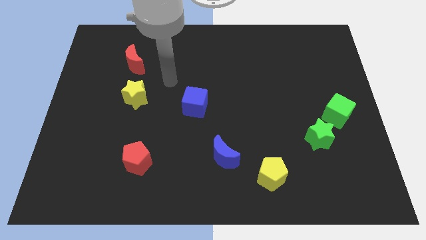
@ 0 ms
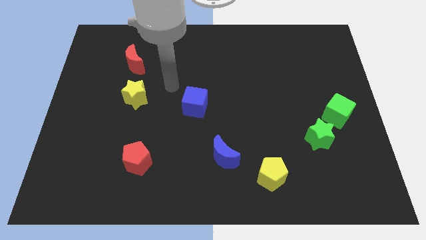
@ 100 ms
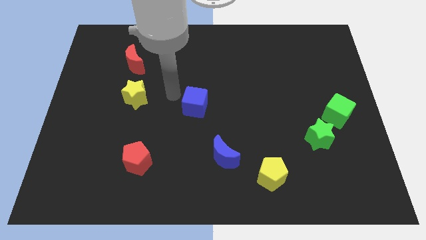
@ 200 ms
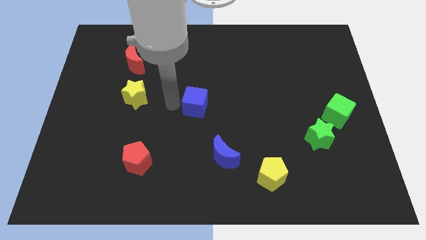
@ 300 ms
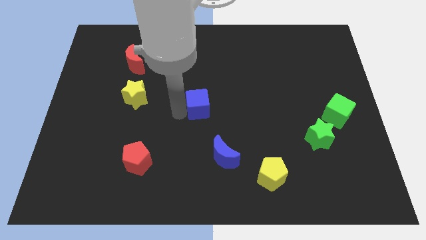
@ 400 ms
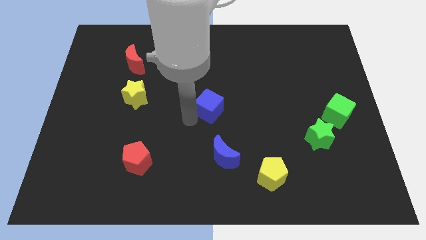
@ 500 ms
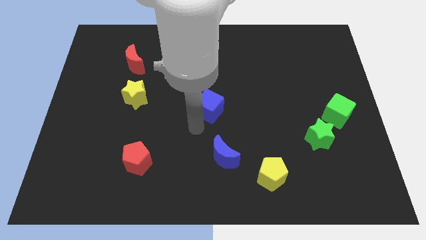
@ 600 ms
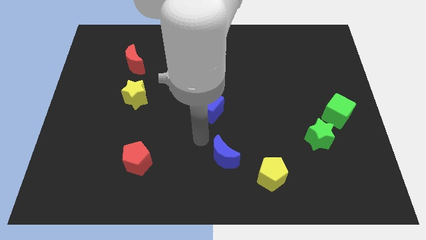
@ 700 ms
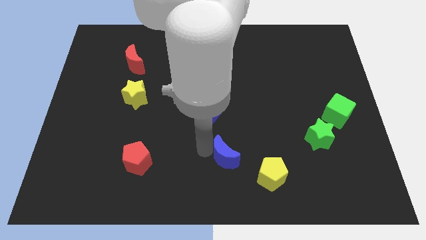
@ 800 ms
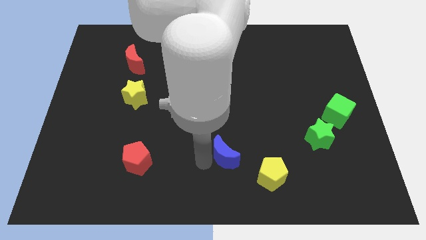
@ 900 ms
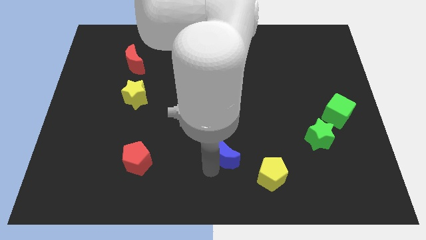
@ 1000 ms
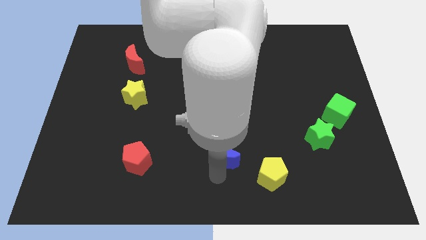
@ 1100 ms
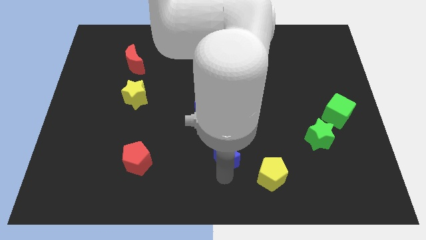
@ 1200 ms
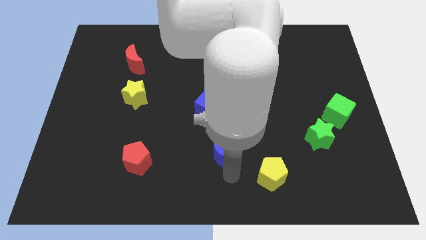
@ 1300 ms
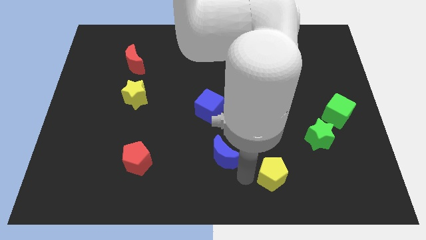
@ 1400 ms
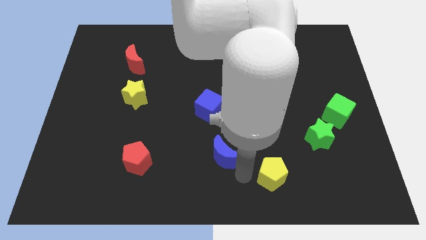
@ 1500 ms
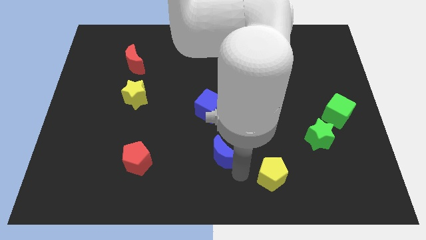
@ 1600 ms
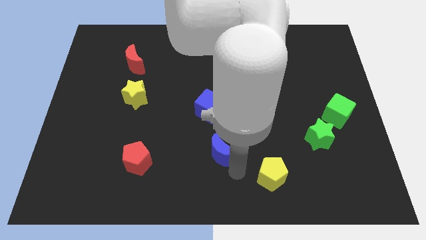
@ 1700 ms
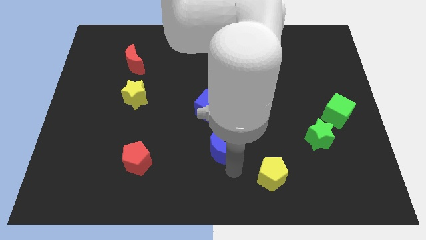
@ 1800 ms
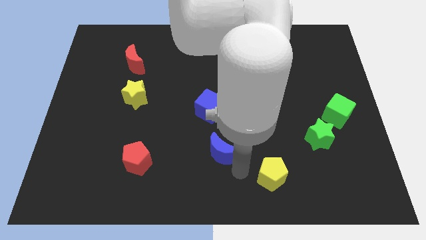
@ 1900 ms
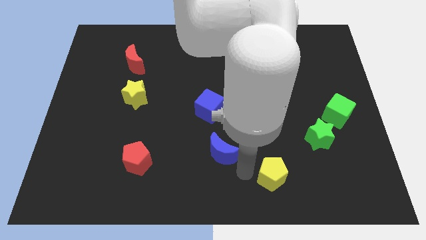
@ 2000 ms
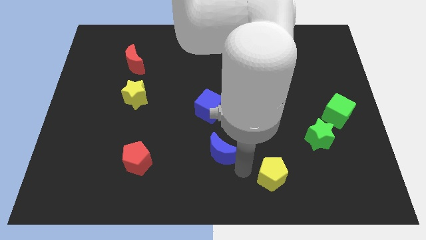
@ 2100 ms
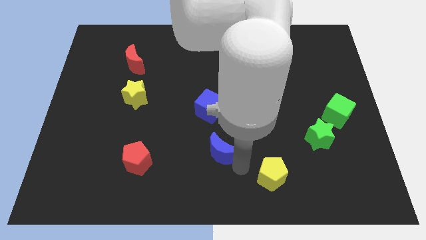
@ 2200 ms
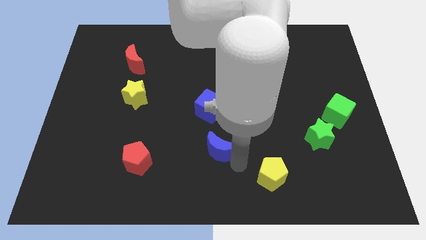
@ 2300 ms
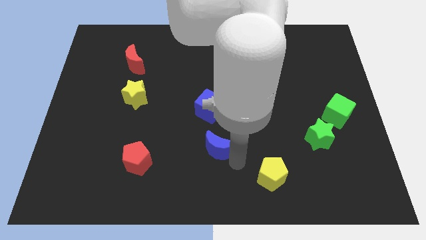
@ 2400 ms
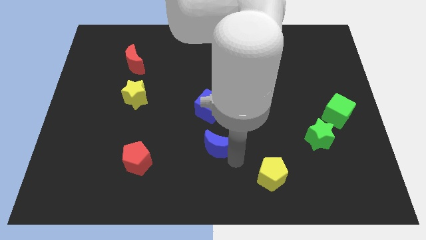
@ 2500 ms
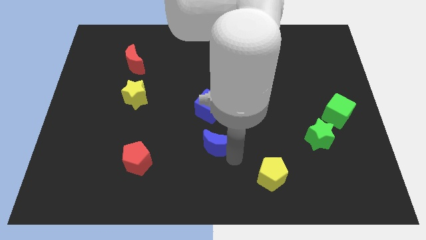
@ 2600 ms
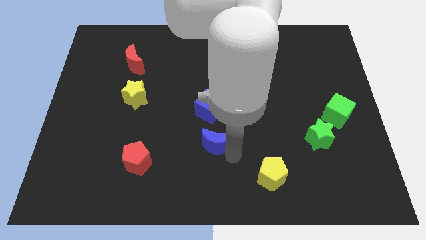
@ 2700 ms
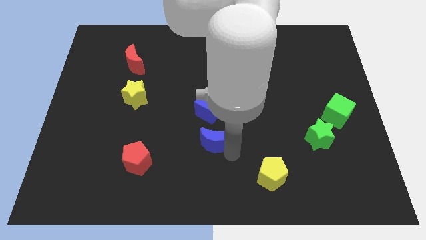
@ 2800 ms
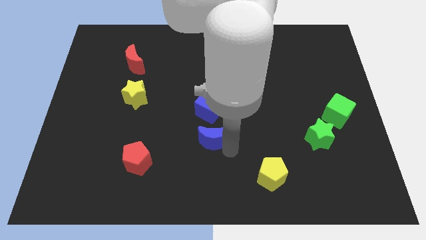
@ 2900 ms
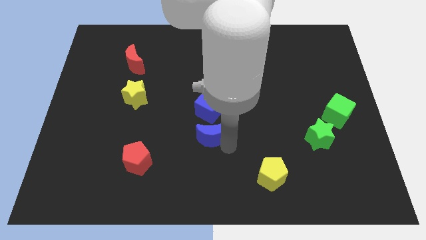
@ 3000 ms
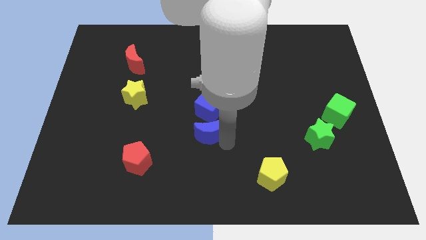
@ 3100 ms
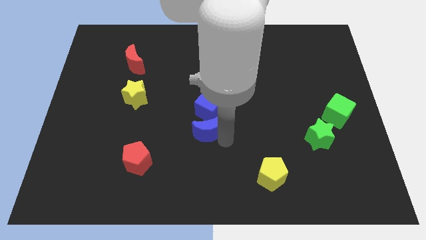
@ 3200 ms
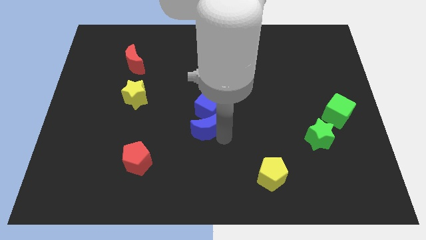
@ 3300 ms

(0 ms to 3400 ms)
slide the blue moon up and left a little bit

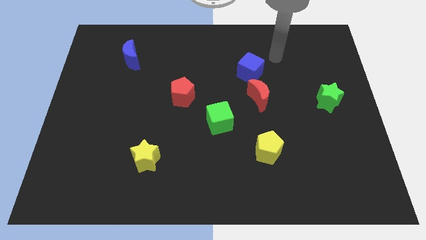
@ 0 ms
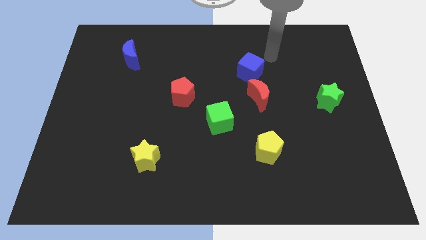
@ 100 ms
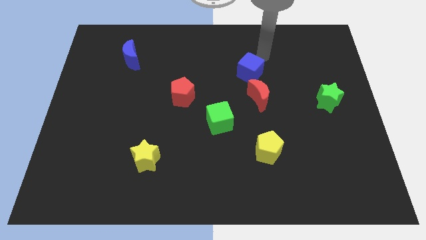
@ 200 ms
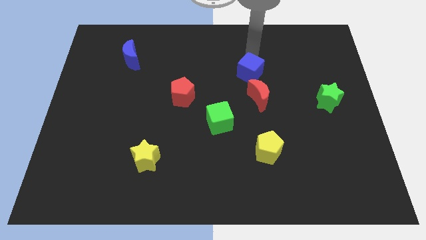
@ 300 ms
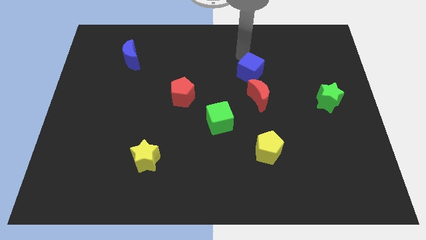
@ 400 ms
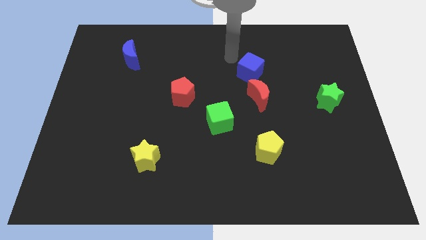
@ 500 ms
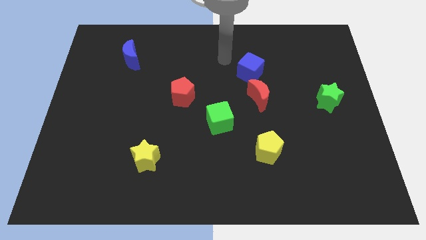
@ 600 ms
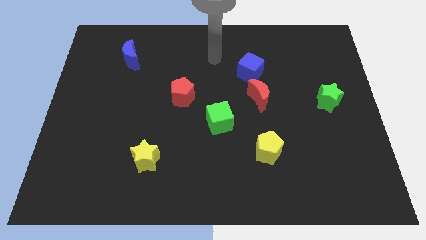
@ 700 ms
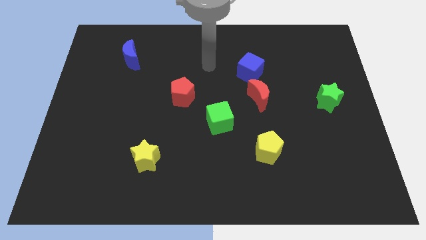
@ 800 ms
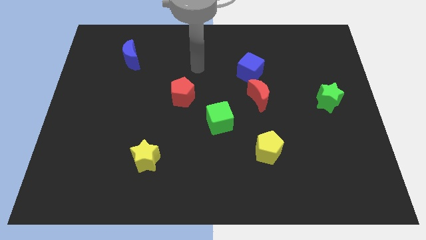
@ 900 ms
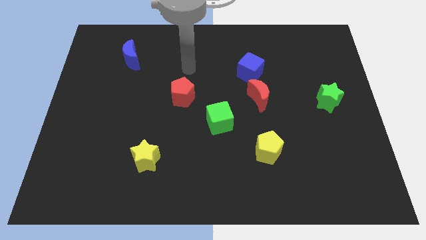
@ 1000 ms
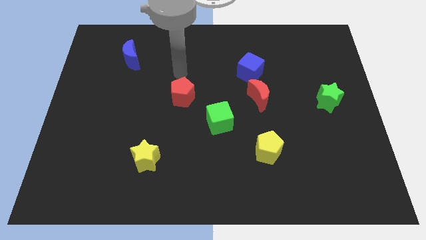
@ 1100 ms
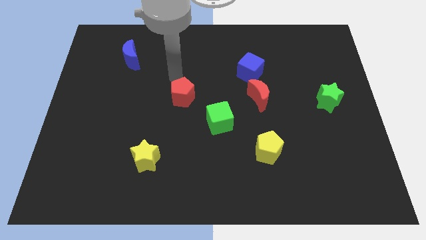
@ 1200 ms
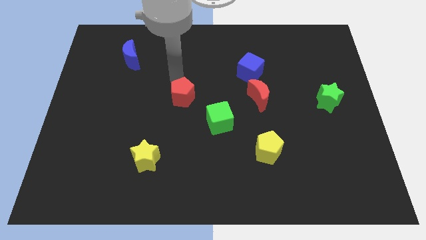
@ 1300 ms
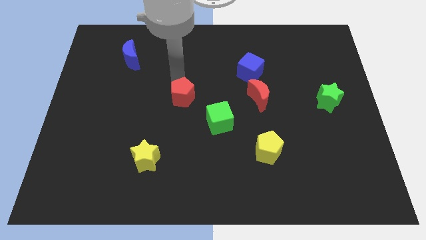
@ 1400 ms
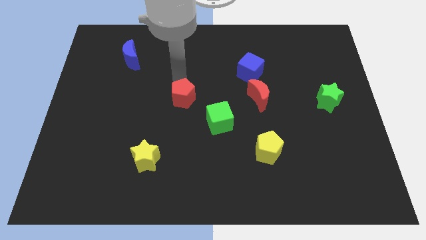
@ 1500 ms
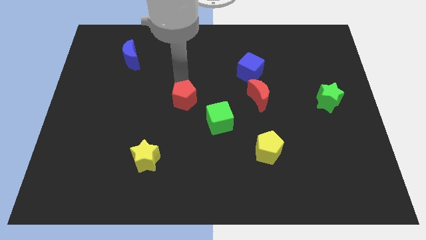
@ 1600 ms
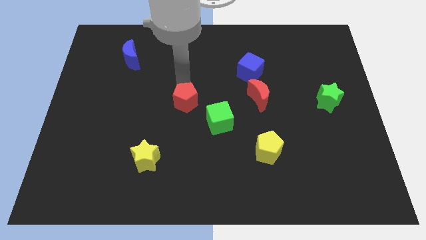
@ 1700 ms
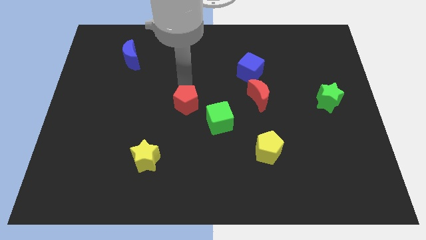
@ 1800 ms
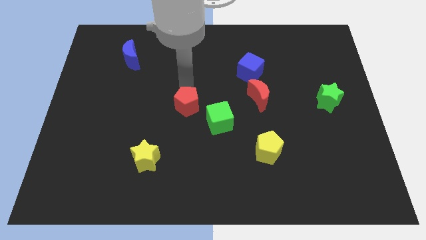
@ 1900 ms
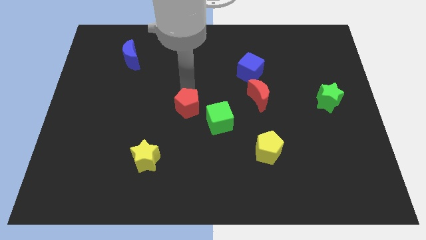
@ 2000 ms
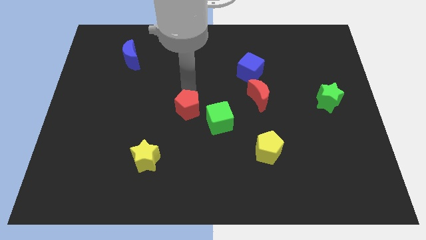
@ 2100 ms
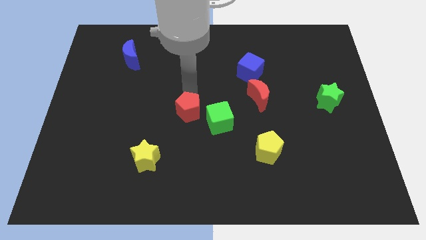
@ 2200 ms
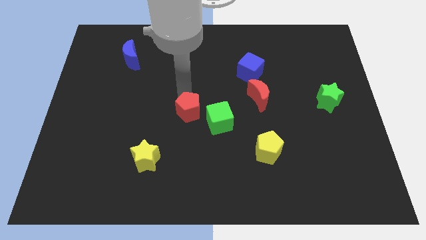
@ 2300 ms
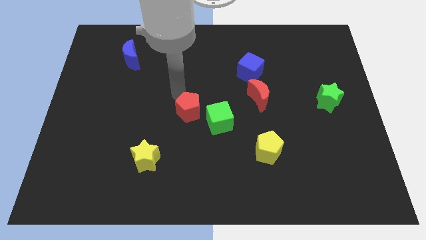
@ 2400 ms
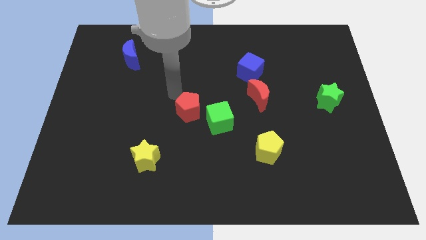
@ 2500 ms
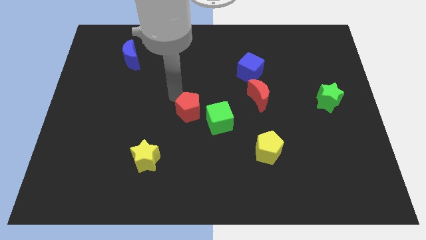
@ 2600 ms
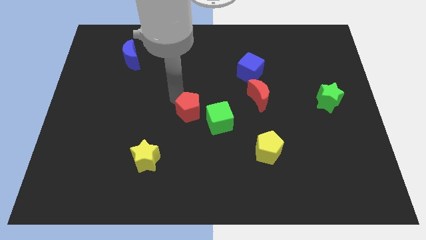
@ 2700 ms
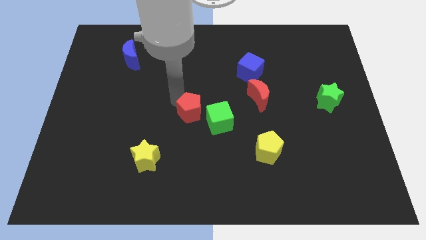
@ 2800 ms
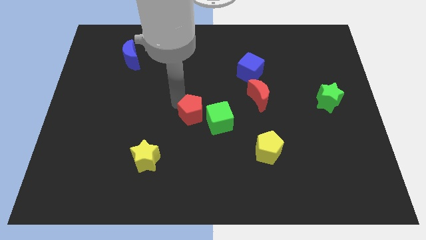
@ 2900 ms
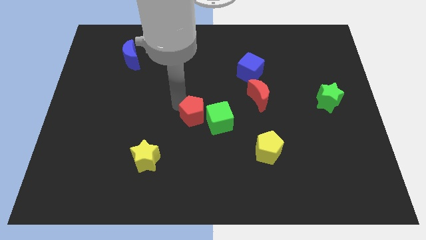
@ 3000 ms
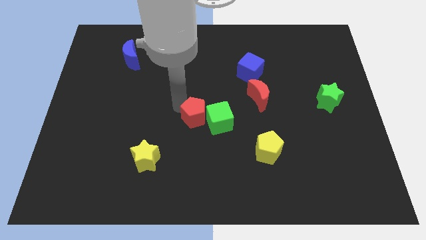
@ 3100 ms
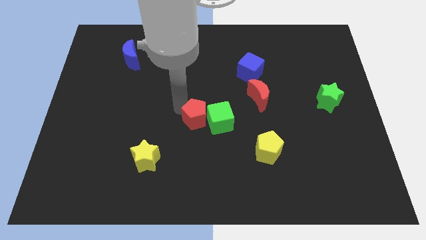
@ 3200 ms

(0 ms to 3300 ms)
push the red pentagon diagonally downwards and right a little

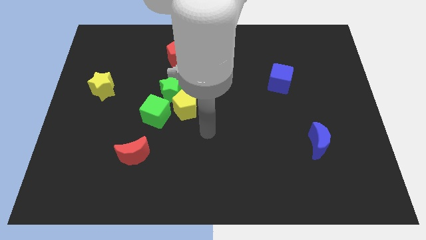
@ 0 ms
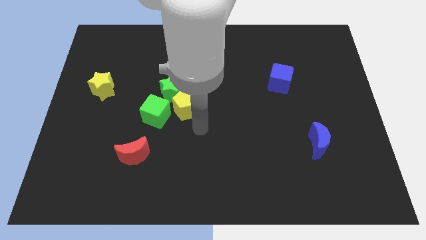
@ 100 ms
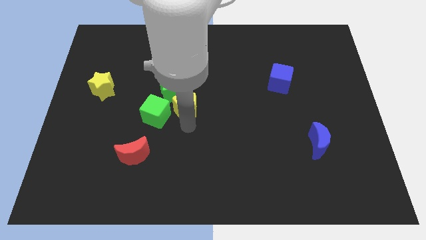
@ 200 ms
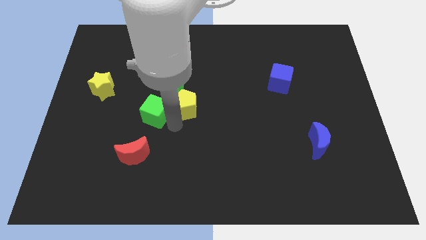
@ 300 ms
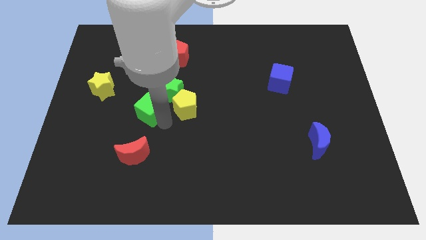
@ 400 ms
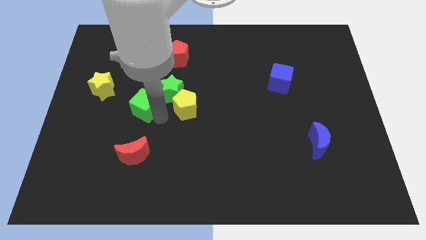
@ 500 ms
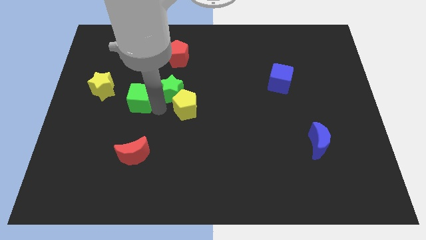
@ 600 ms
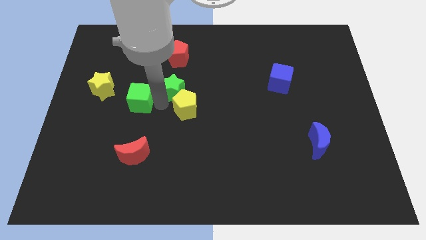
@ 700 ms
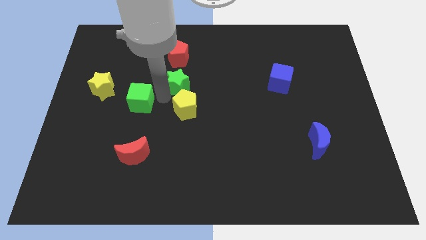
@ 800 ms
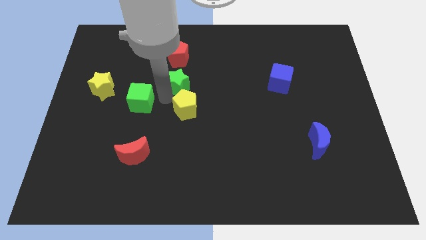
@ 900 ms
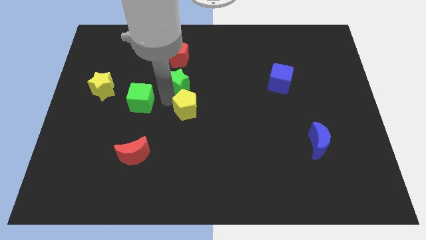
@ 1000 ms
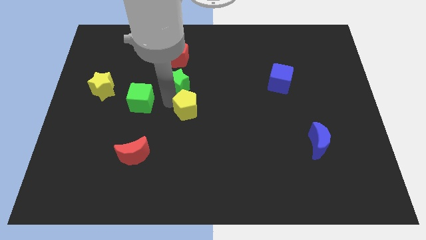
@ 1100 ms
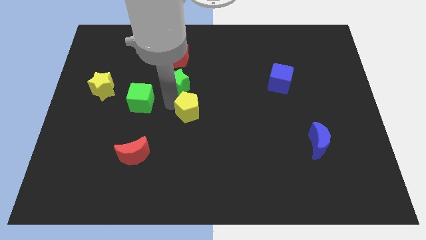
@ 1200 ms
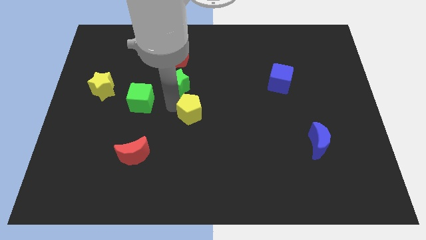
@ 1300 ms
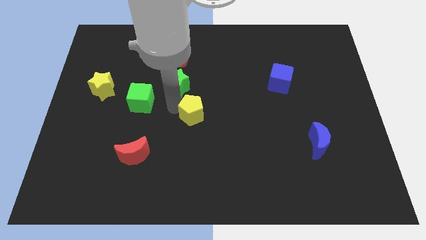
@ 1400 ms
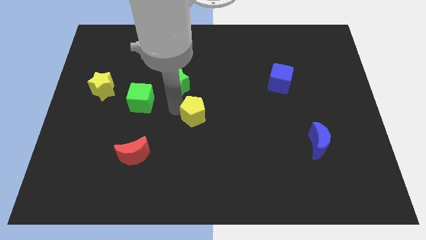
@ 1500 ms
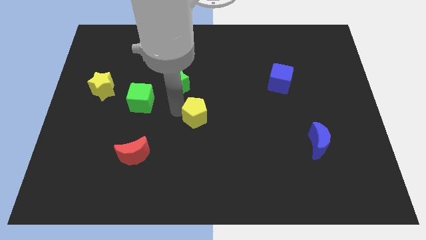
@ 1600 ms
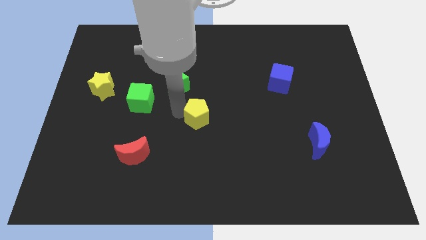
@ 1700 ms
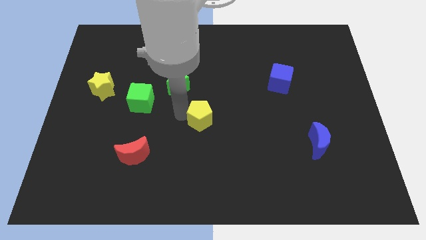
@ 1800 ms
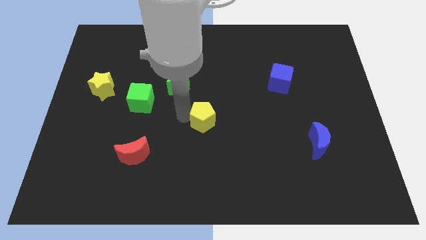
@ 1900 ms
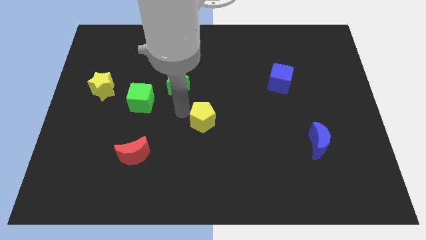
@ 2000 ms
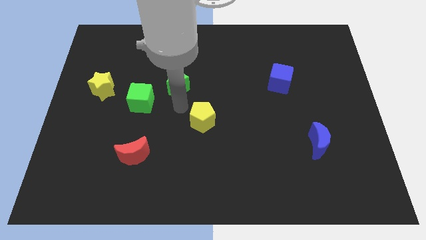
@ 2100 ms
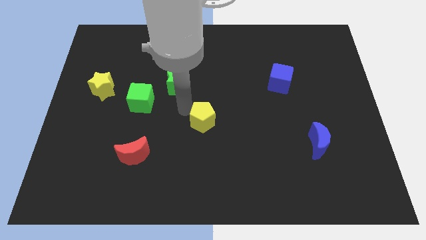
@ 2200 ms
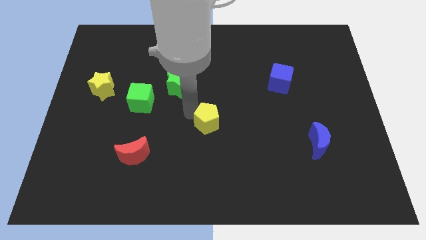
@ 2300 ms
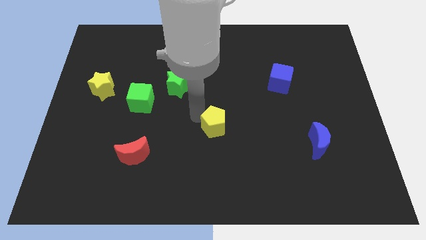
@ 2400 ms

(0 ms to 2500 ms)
push the yellow pentagon a little downwards and then to the right
